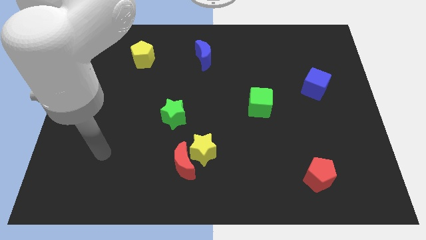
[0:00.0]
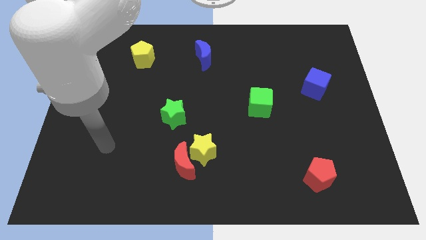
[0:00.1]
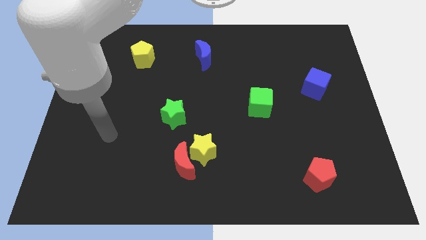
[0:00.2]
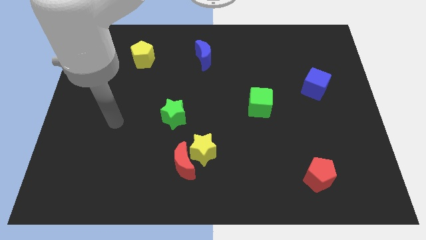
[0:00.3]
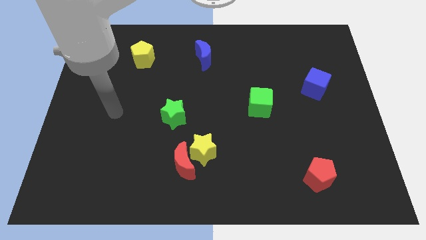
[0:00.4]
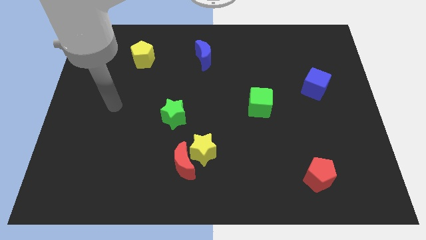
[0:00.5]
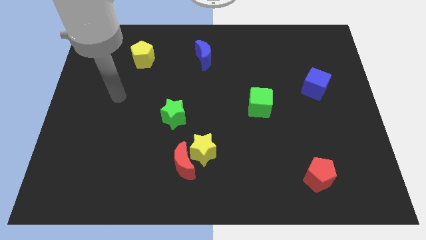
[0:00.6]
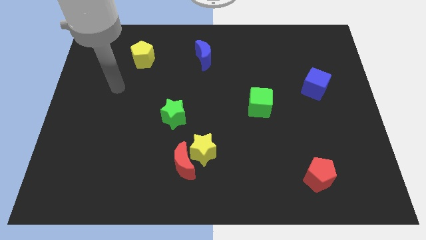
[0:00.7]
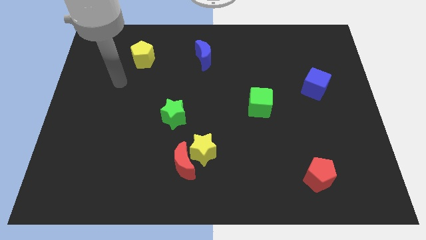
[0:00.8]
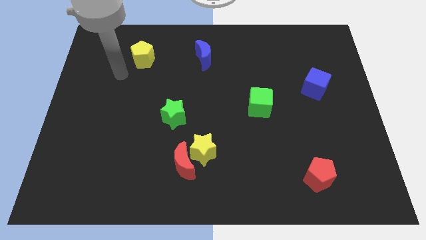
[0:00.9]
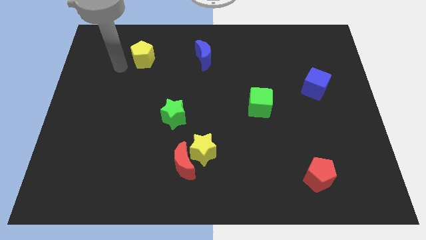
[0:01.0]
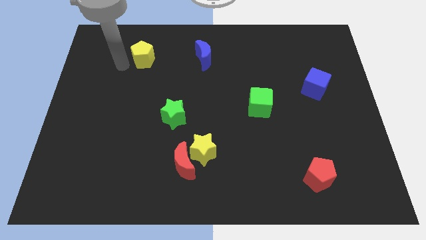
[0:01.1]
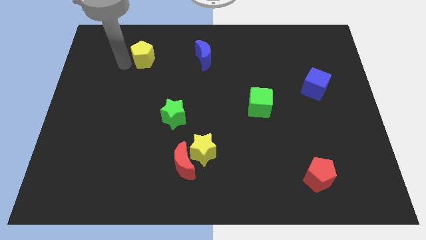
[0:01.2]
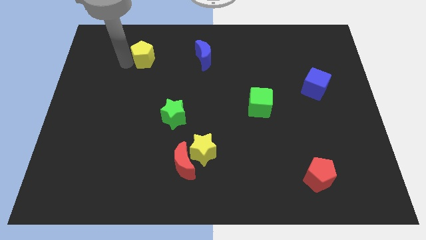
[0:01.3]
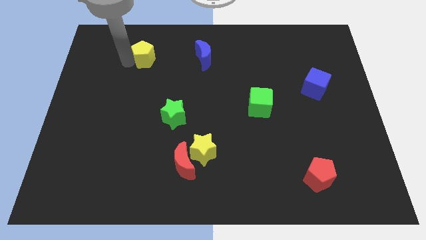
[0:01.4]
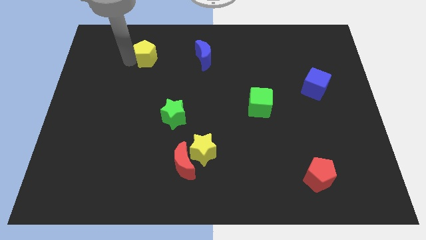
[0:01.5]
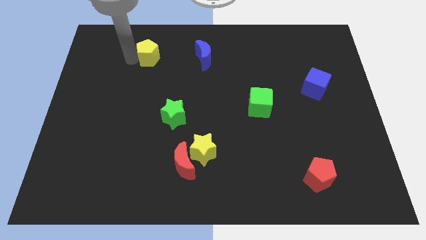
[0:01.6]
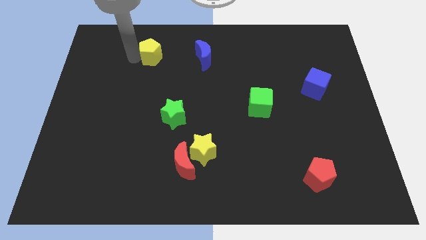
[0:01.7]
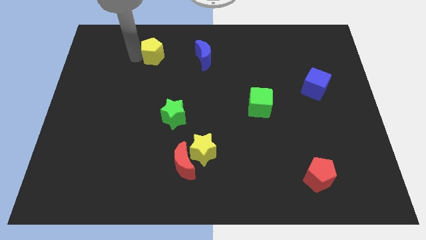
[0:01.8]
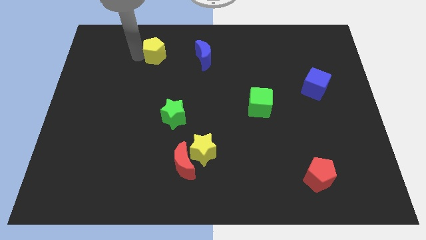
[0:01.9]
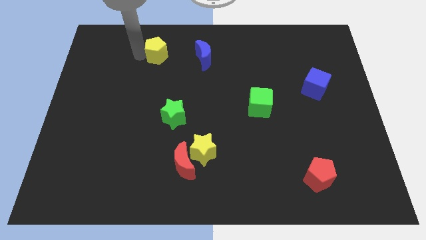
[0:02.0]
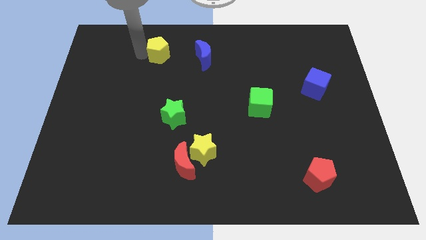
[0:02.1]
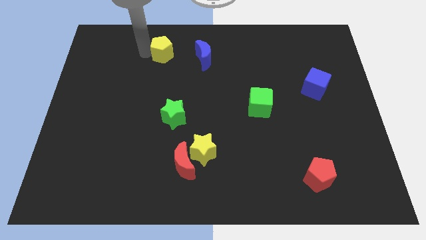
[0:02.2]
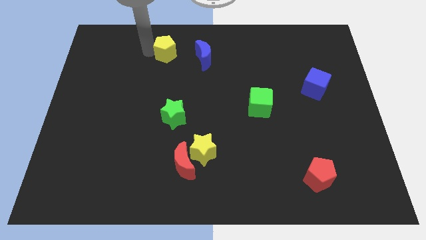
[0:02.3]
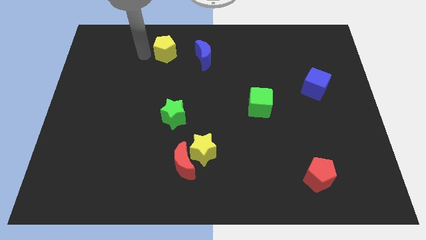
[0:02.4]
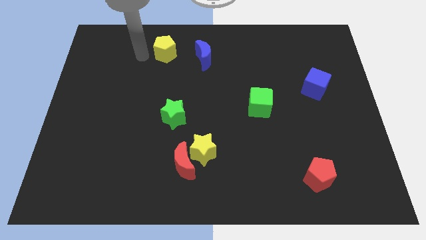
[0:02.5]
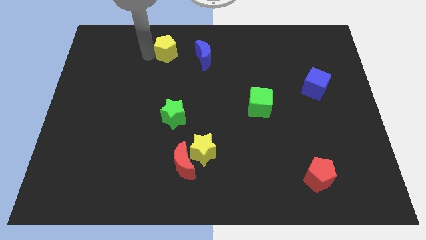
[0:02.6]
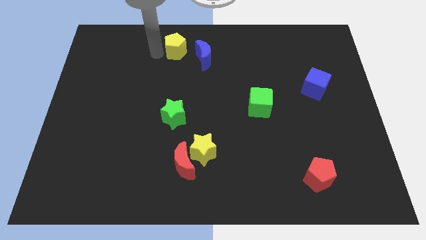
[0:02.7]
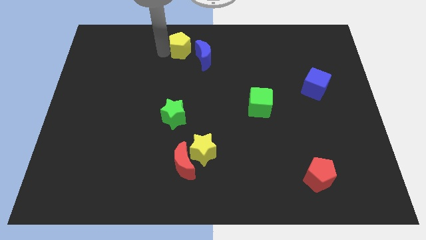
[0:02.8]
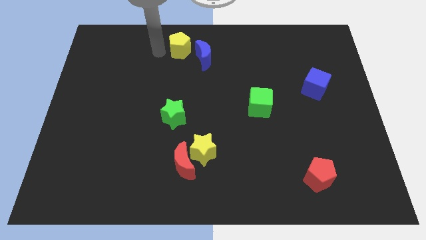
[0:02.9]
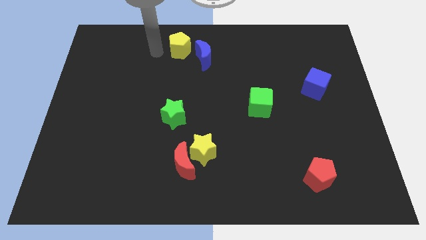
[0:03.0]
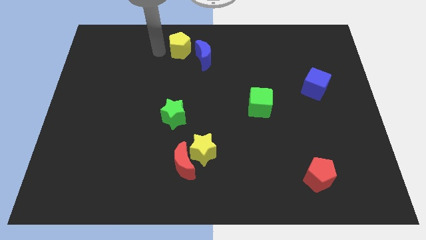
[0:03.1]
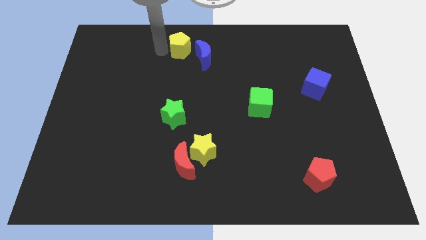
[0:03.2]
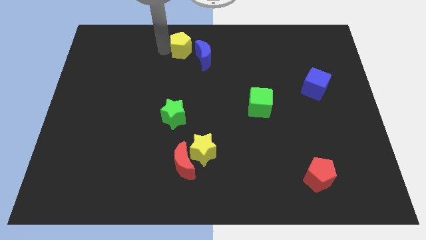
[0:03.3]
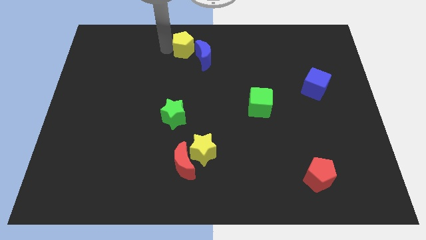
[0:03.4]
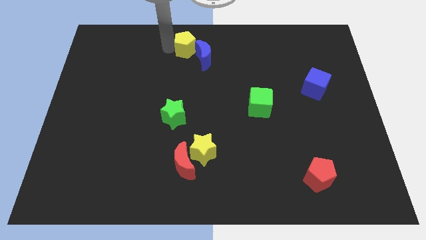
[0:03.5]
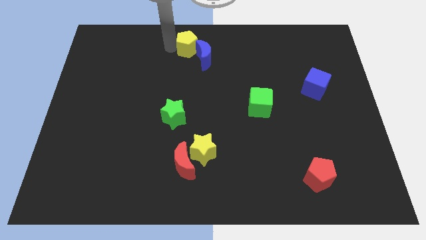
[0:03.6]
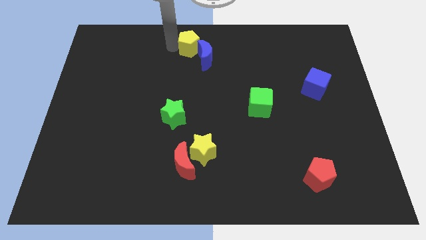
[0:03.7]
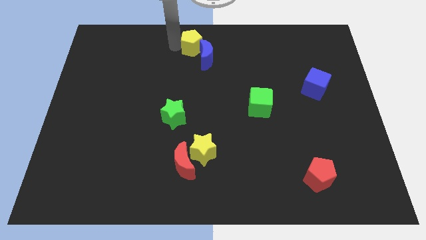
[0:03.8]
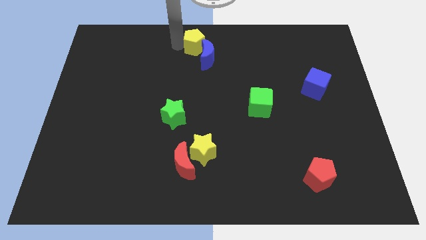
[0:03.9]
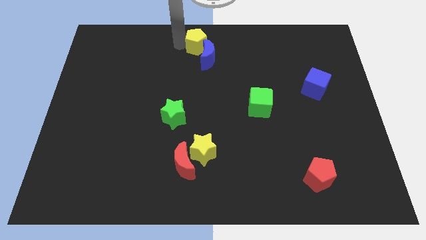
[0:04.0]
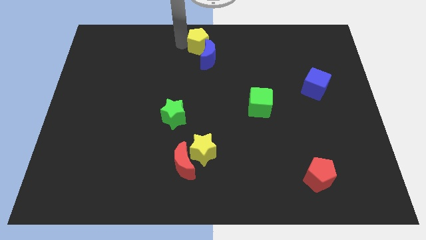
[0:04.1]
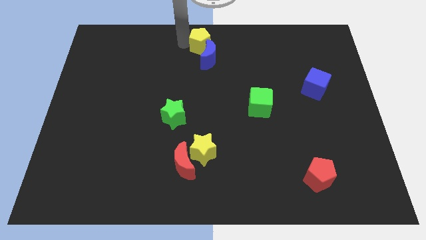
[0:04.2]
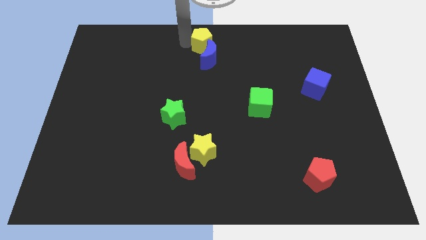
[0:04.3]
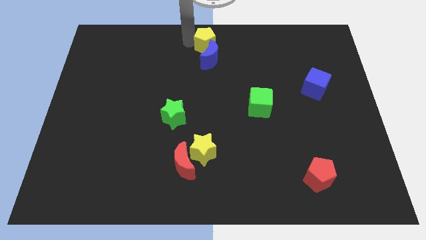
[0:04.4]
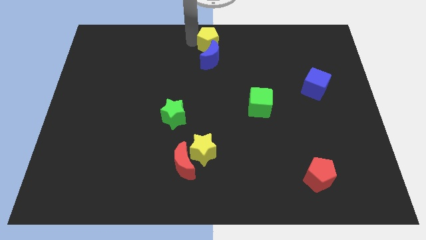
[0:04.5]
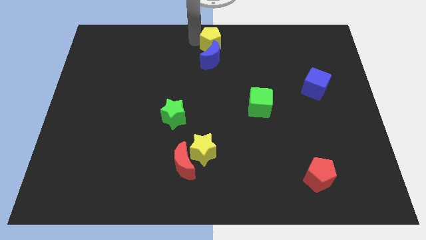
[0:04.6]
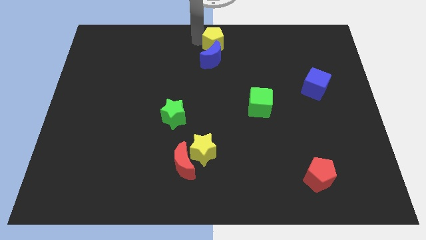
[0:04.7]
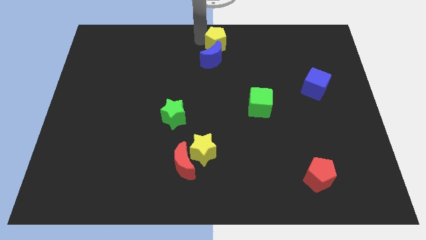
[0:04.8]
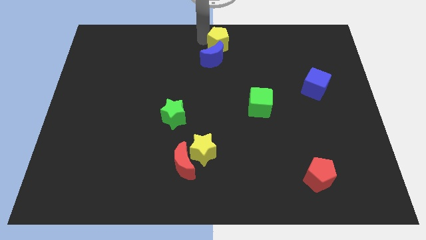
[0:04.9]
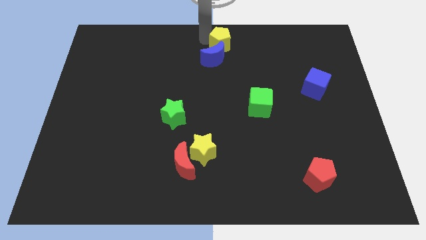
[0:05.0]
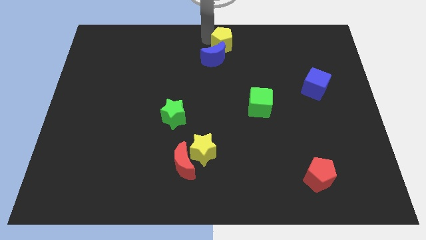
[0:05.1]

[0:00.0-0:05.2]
move the yellow pentagon to the right

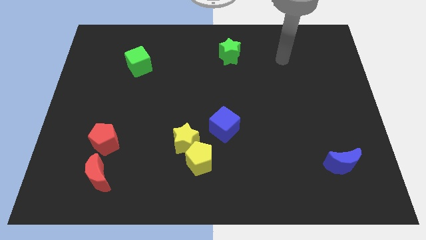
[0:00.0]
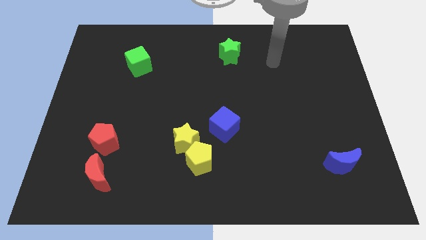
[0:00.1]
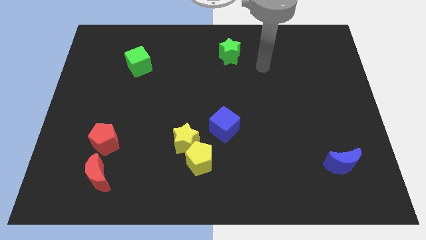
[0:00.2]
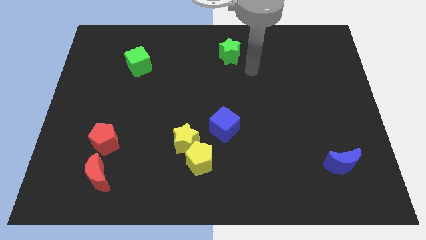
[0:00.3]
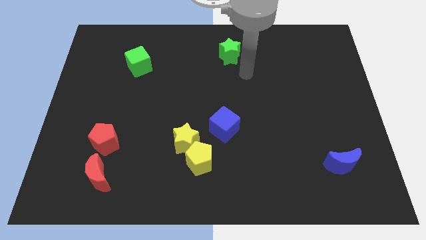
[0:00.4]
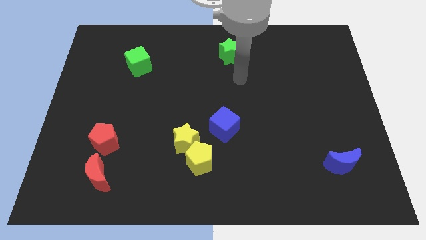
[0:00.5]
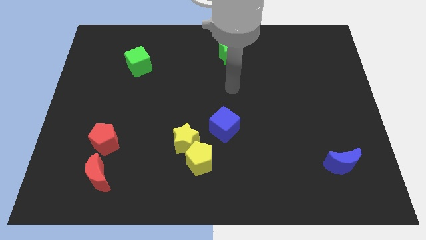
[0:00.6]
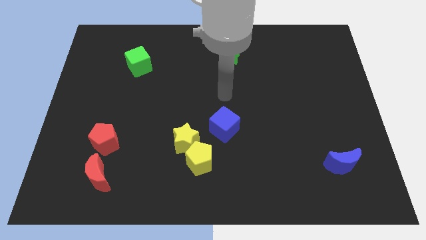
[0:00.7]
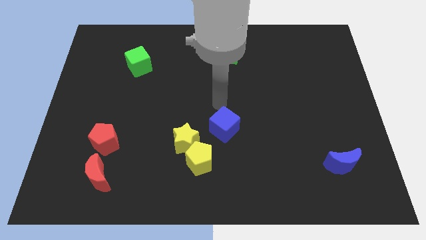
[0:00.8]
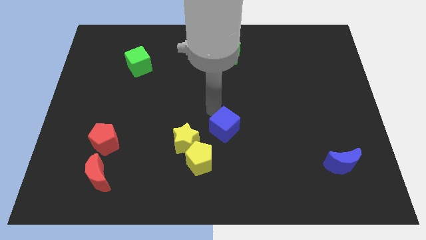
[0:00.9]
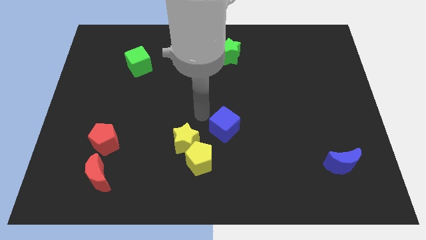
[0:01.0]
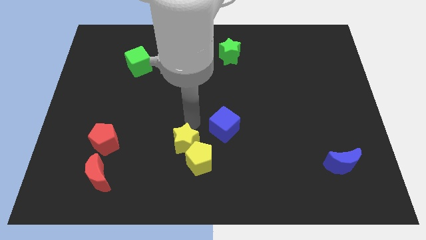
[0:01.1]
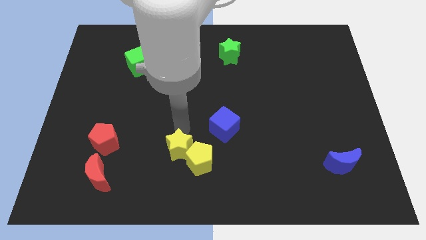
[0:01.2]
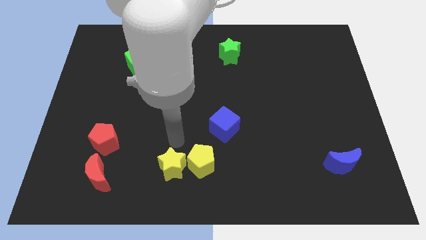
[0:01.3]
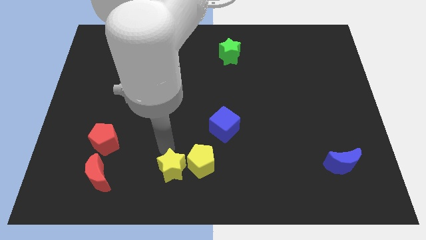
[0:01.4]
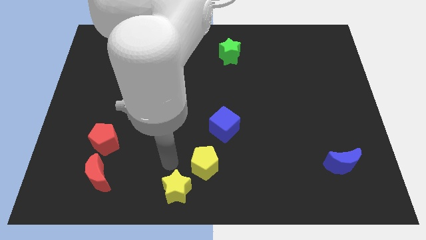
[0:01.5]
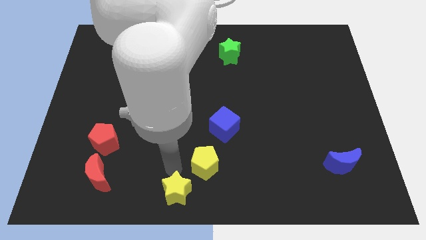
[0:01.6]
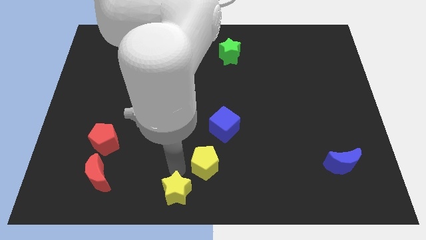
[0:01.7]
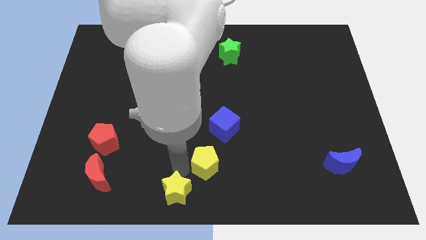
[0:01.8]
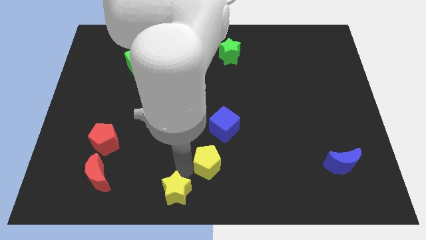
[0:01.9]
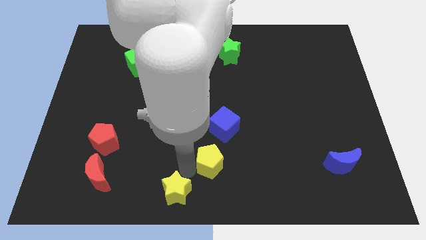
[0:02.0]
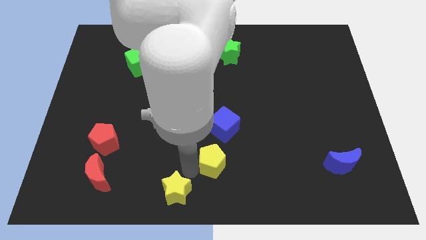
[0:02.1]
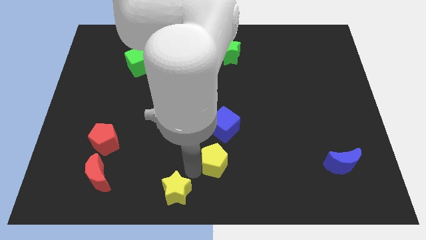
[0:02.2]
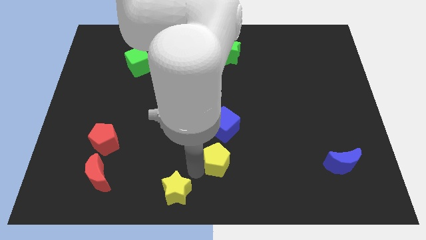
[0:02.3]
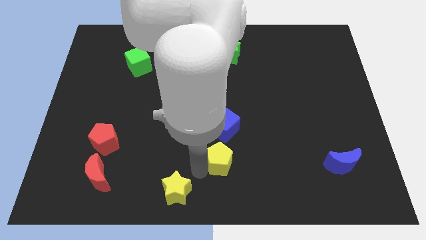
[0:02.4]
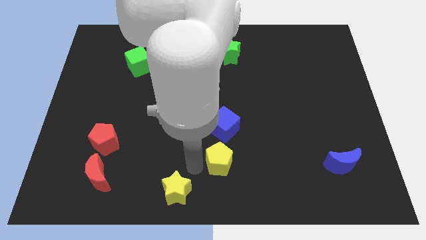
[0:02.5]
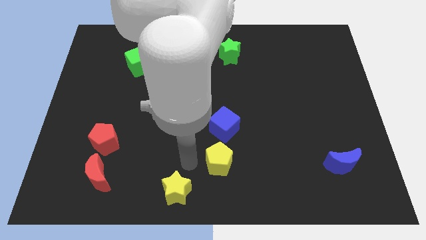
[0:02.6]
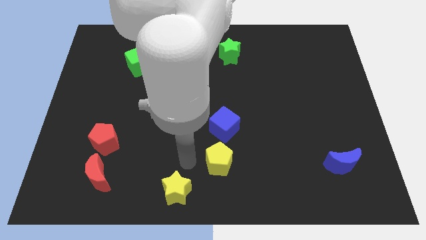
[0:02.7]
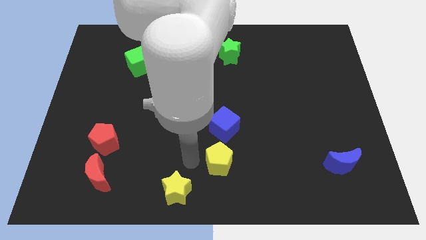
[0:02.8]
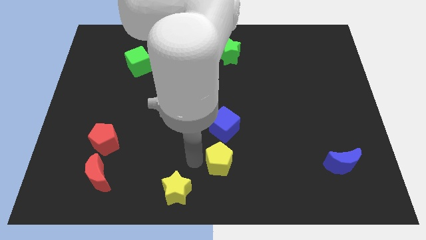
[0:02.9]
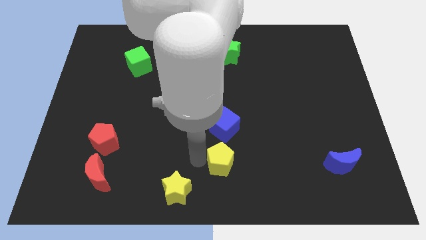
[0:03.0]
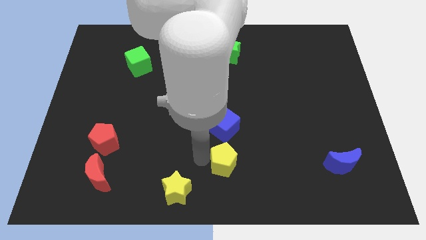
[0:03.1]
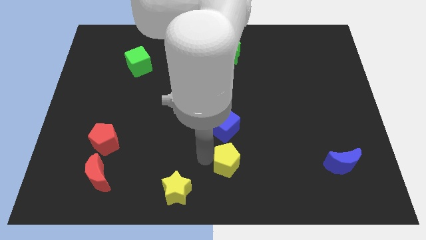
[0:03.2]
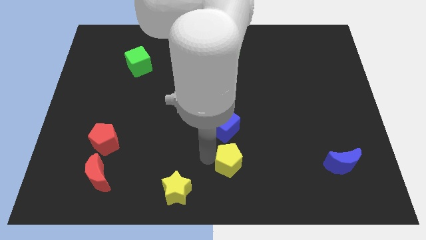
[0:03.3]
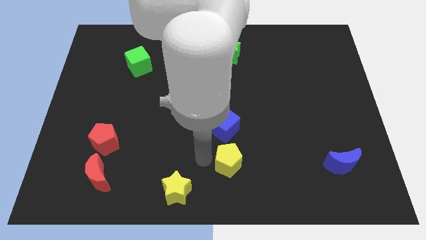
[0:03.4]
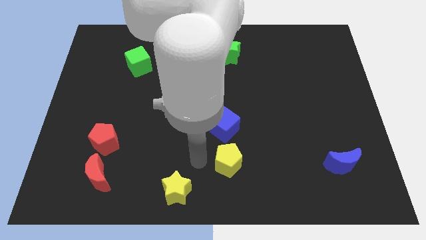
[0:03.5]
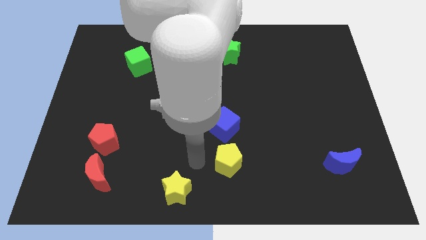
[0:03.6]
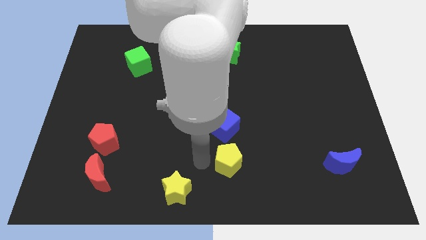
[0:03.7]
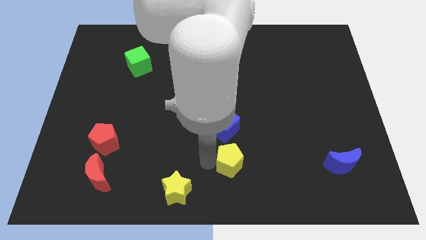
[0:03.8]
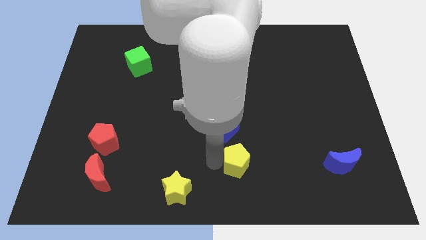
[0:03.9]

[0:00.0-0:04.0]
slide the yellow pentagon somewhat right
